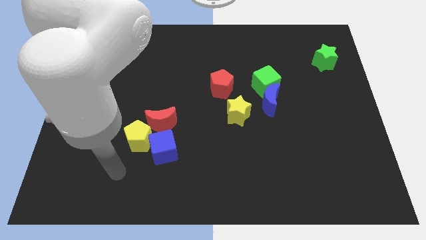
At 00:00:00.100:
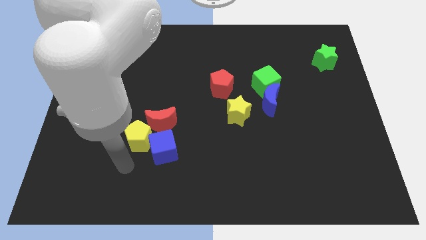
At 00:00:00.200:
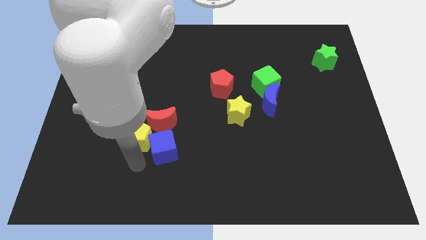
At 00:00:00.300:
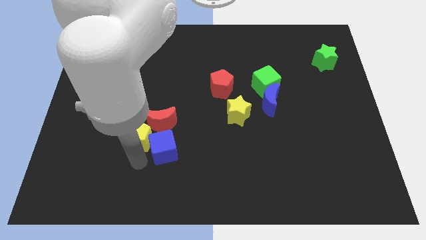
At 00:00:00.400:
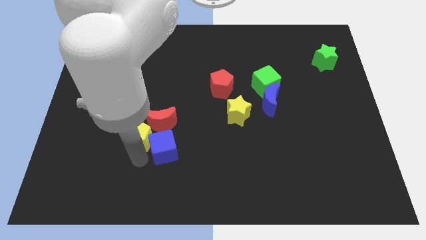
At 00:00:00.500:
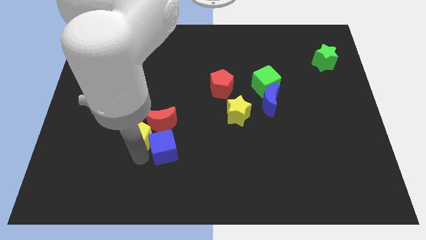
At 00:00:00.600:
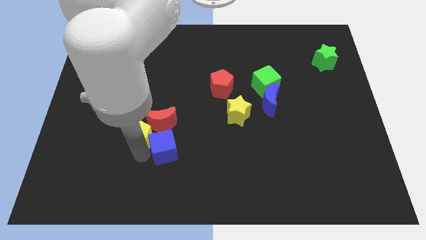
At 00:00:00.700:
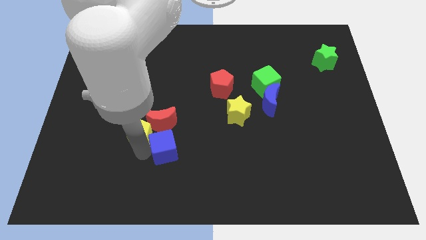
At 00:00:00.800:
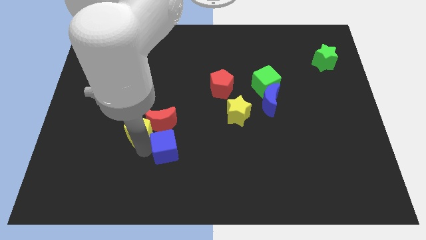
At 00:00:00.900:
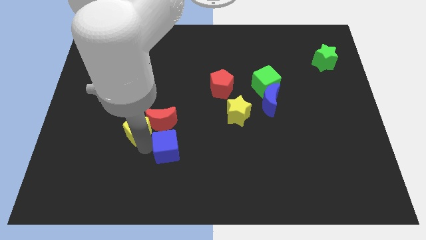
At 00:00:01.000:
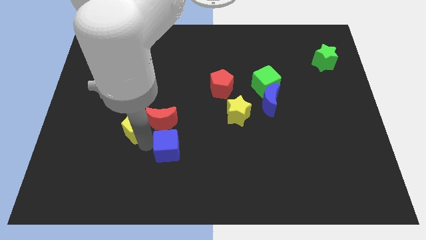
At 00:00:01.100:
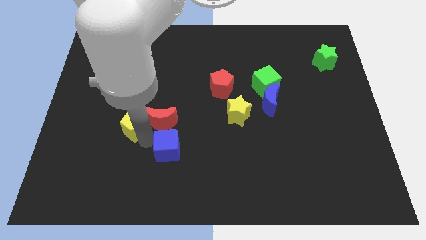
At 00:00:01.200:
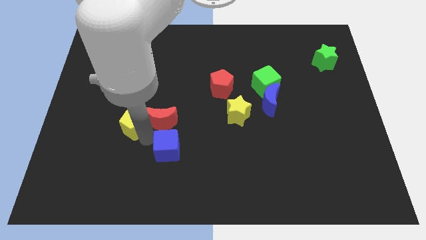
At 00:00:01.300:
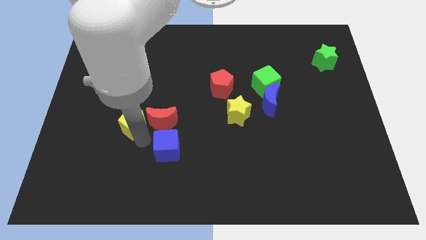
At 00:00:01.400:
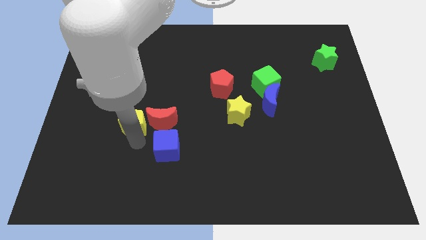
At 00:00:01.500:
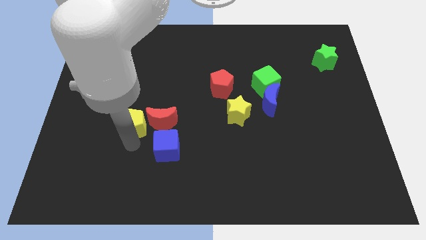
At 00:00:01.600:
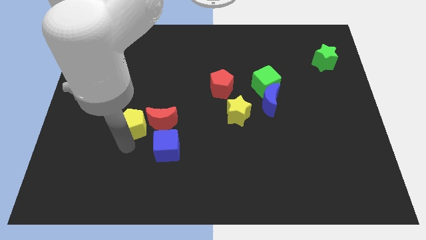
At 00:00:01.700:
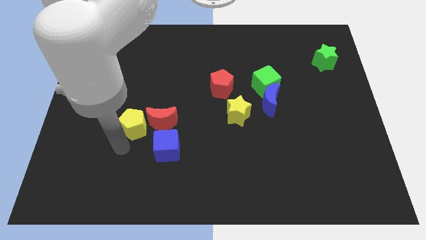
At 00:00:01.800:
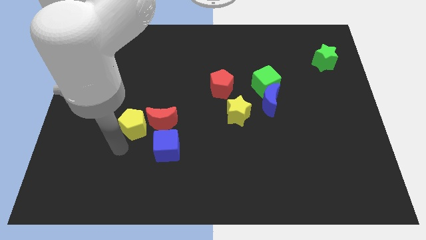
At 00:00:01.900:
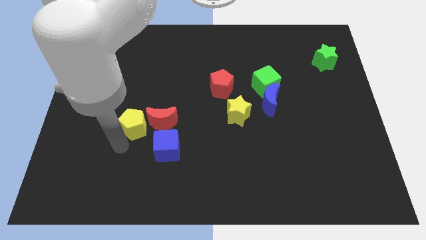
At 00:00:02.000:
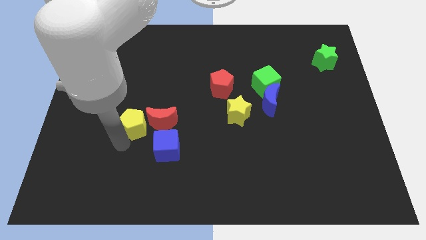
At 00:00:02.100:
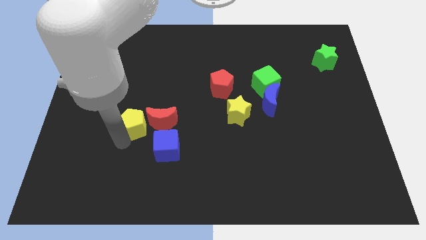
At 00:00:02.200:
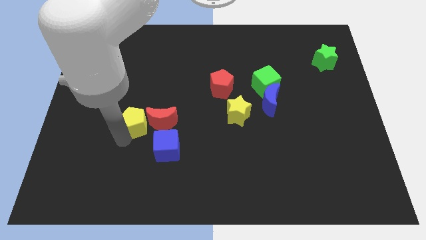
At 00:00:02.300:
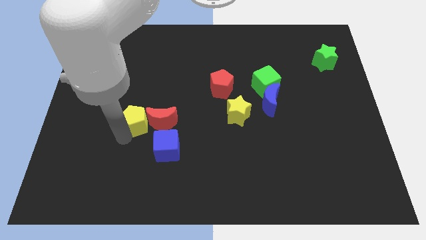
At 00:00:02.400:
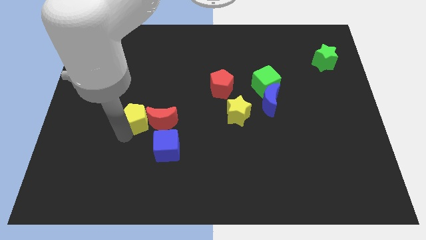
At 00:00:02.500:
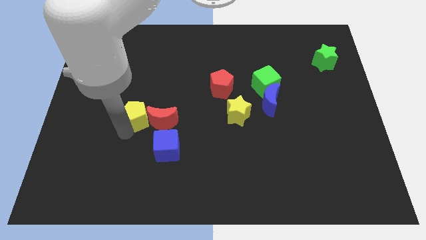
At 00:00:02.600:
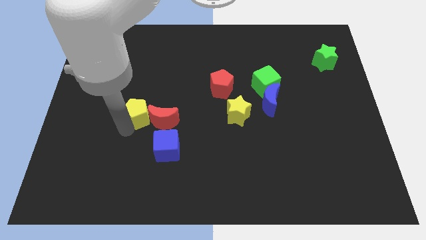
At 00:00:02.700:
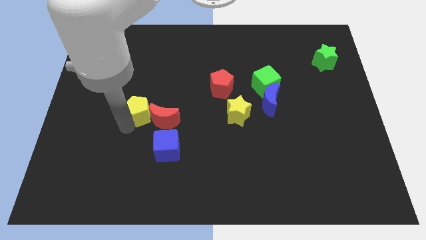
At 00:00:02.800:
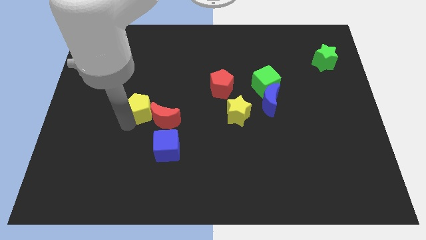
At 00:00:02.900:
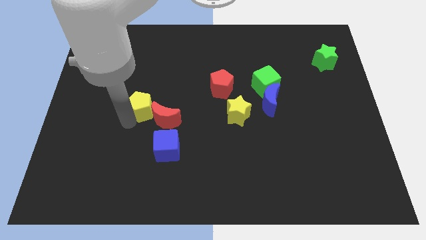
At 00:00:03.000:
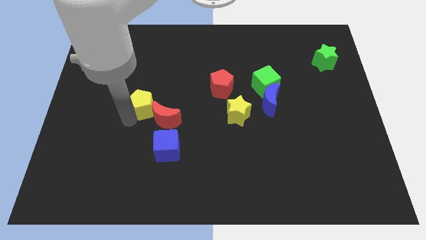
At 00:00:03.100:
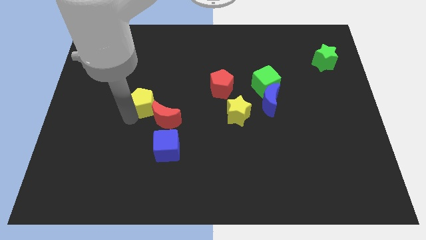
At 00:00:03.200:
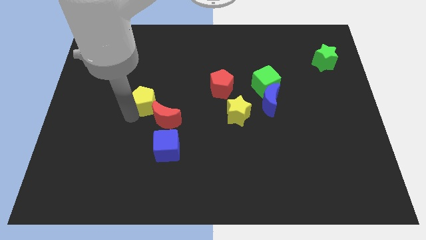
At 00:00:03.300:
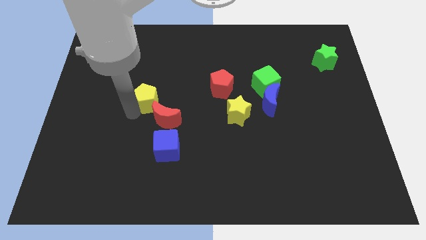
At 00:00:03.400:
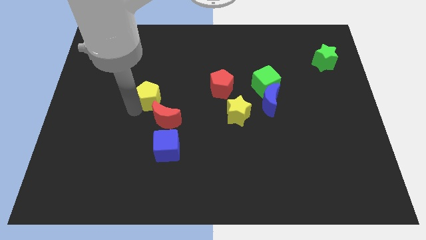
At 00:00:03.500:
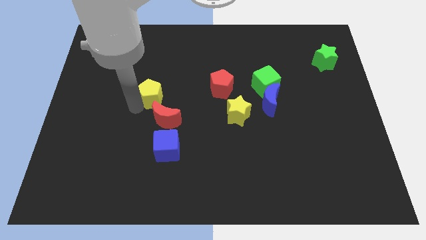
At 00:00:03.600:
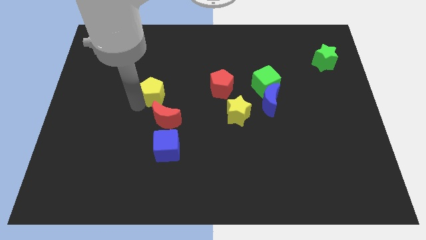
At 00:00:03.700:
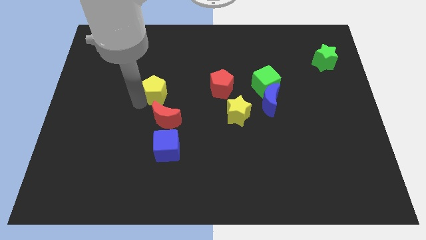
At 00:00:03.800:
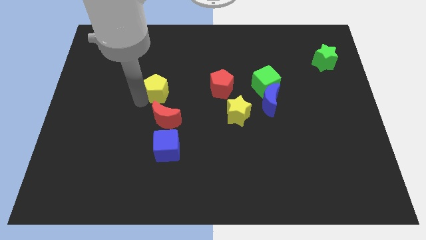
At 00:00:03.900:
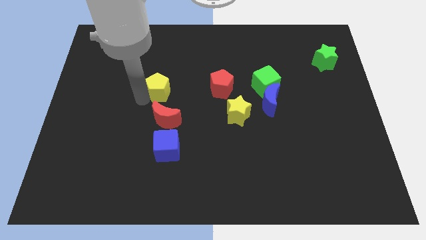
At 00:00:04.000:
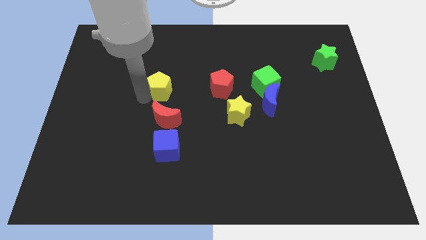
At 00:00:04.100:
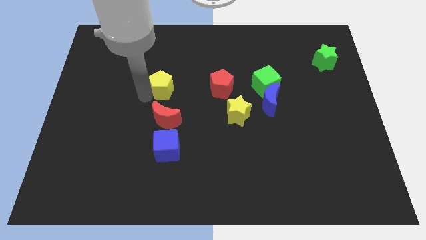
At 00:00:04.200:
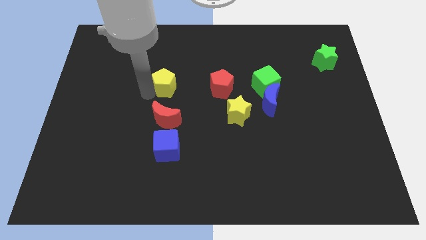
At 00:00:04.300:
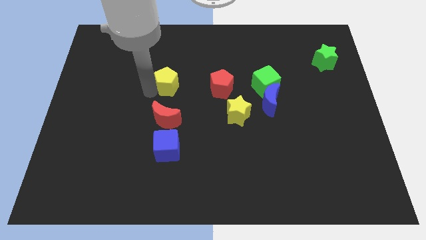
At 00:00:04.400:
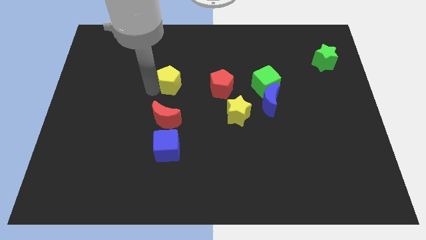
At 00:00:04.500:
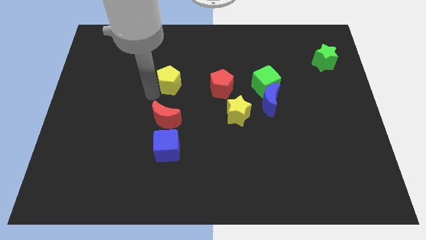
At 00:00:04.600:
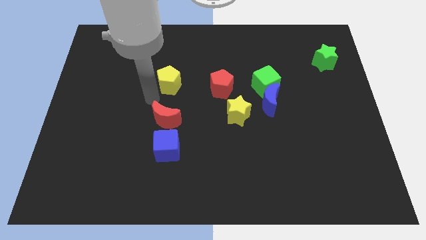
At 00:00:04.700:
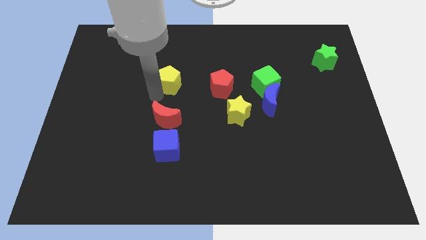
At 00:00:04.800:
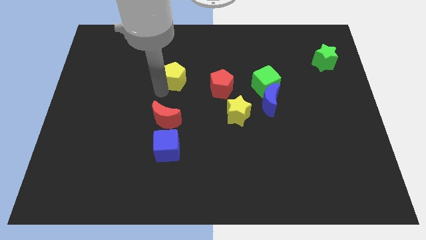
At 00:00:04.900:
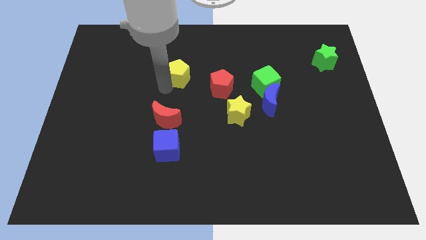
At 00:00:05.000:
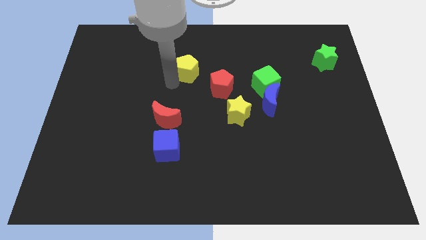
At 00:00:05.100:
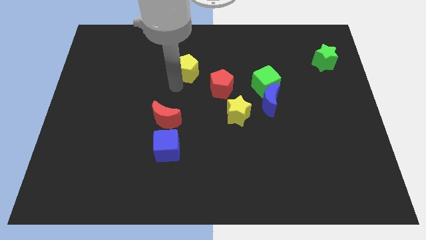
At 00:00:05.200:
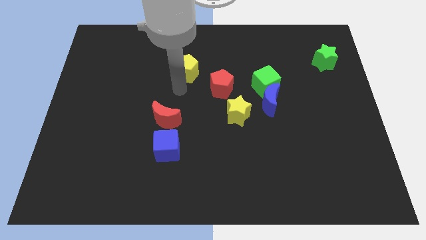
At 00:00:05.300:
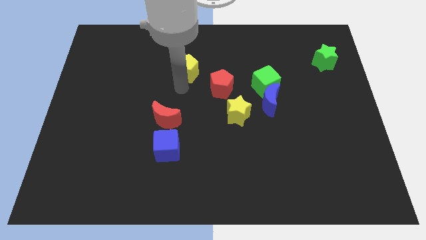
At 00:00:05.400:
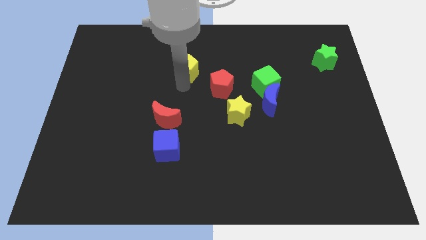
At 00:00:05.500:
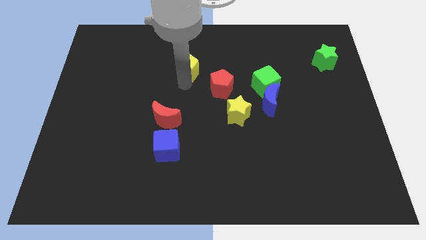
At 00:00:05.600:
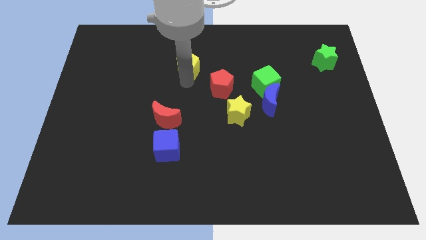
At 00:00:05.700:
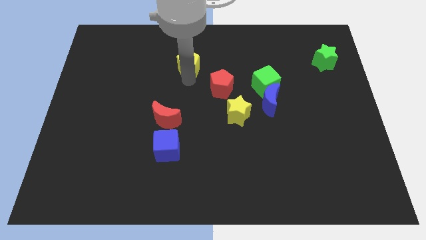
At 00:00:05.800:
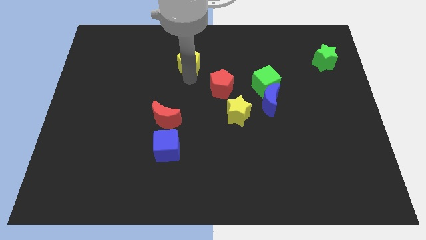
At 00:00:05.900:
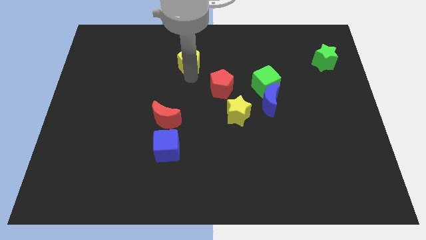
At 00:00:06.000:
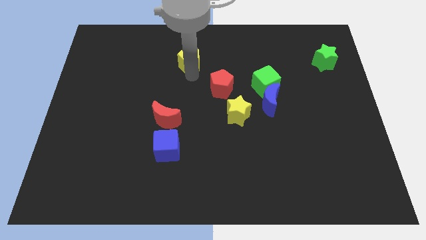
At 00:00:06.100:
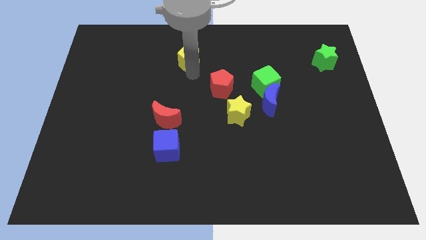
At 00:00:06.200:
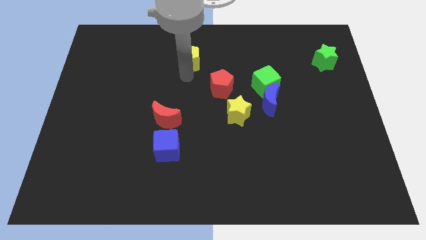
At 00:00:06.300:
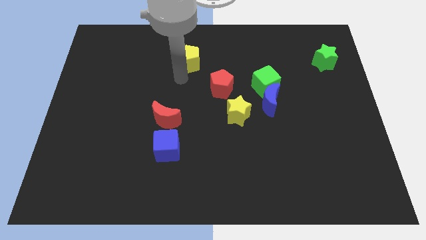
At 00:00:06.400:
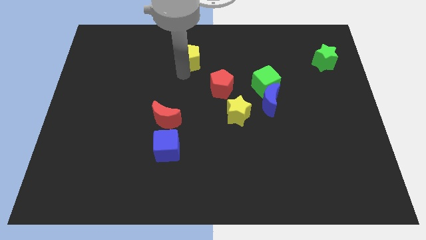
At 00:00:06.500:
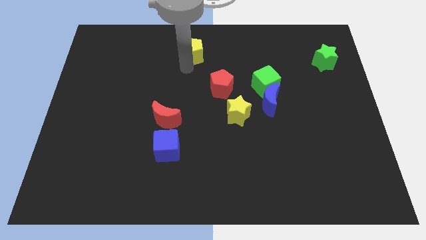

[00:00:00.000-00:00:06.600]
slide the yellow pentagon to the top side

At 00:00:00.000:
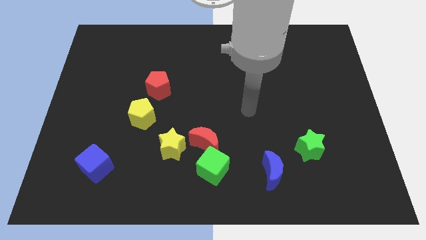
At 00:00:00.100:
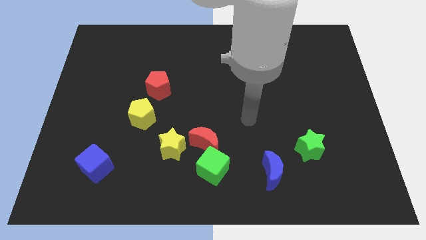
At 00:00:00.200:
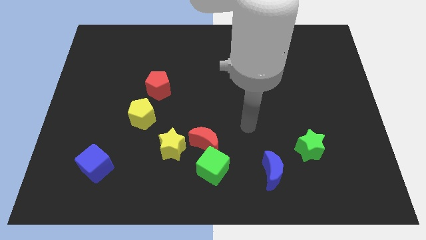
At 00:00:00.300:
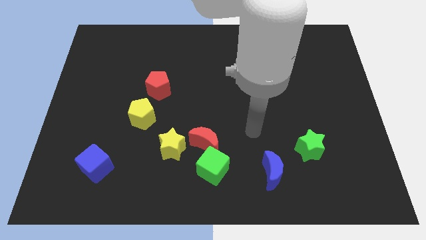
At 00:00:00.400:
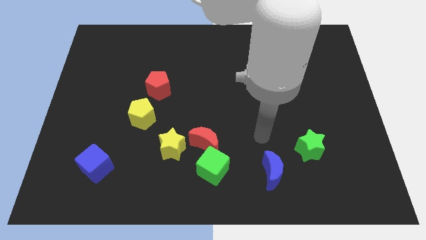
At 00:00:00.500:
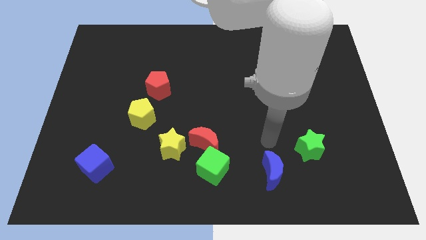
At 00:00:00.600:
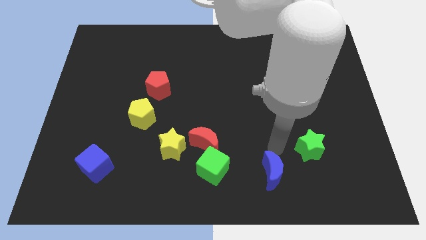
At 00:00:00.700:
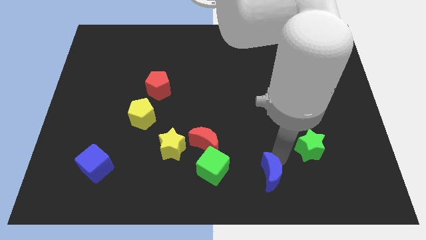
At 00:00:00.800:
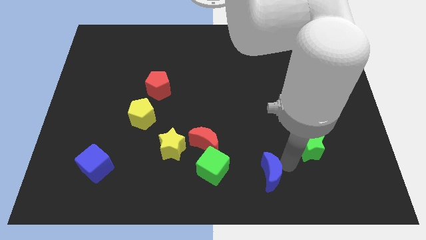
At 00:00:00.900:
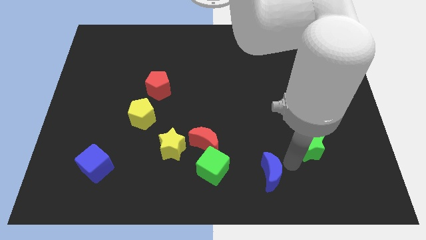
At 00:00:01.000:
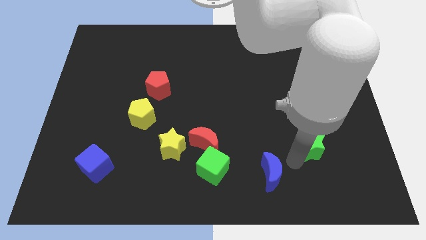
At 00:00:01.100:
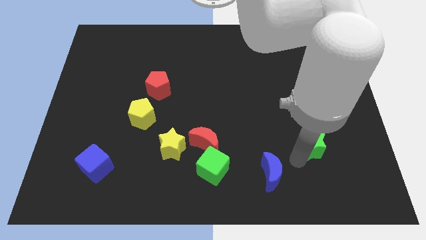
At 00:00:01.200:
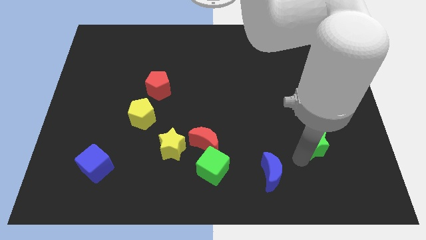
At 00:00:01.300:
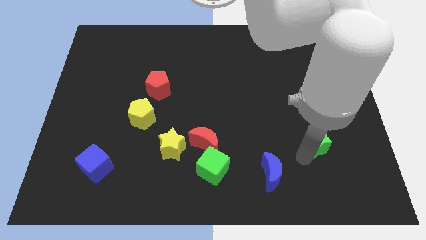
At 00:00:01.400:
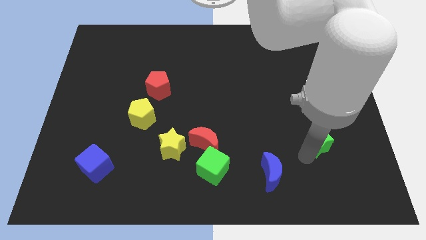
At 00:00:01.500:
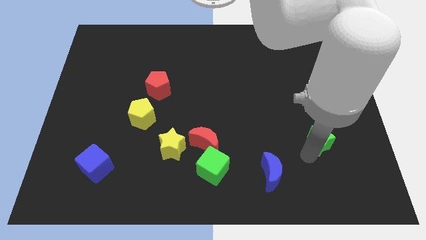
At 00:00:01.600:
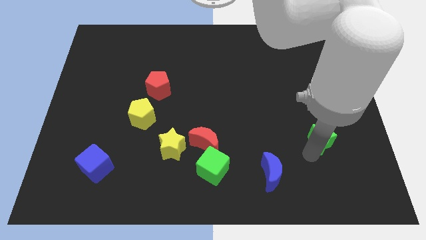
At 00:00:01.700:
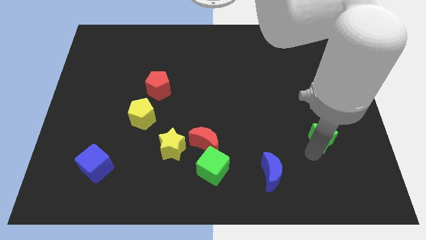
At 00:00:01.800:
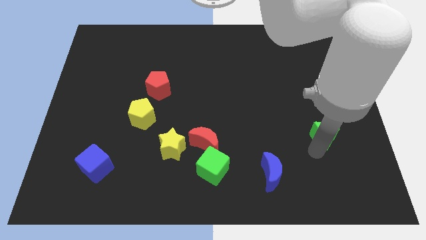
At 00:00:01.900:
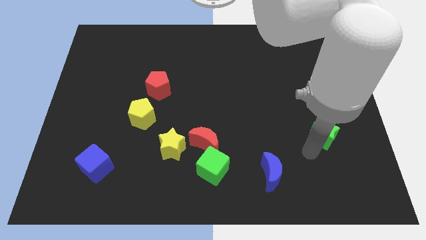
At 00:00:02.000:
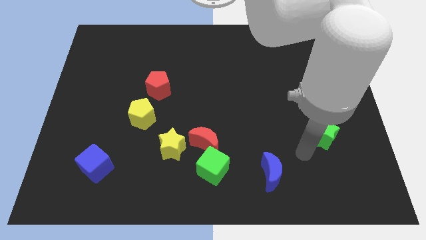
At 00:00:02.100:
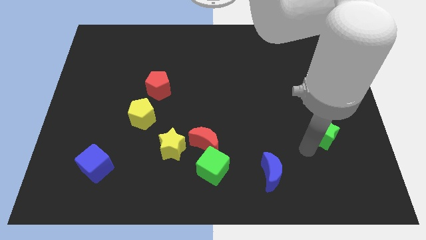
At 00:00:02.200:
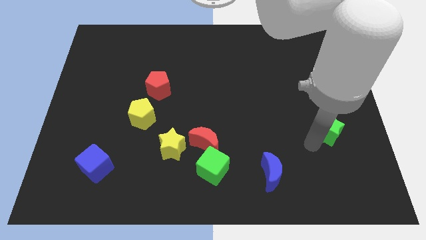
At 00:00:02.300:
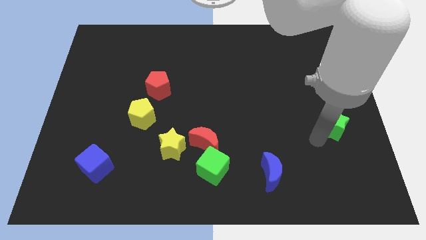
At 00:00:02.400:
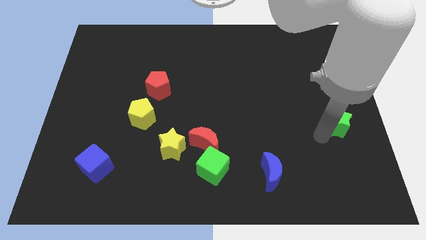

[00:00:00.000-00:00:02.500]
move the green star to the center right
